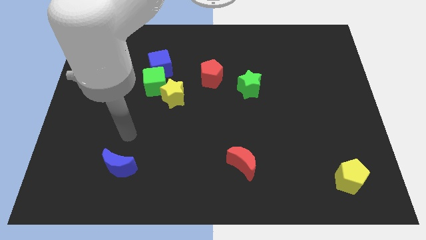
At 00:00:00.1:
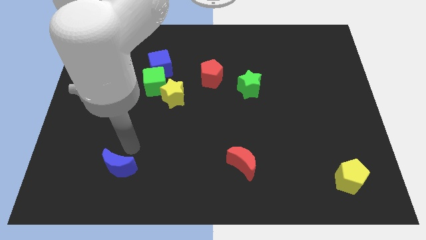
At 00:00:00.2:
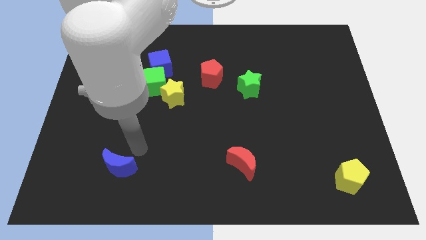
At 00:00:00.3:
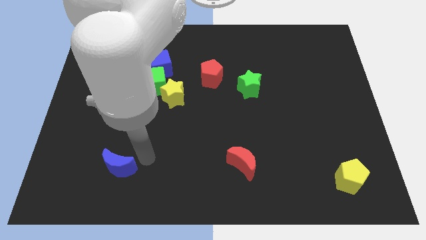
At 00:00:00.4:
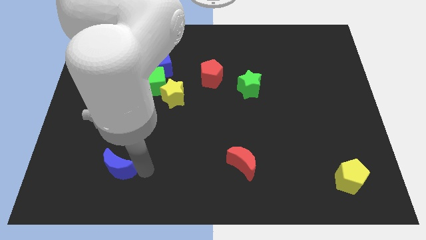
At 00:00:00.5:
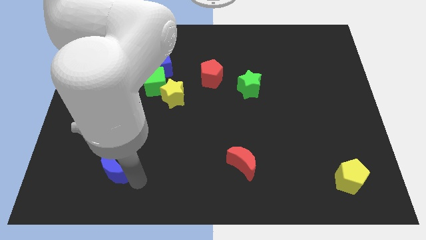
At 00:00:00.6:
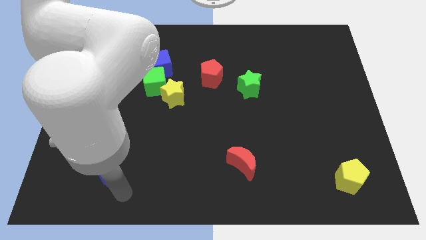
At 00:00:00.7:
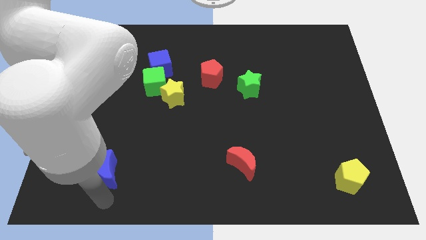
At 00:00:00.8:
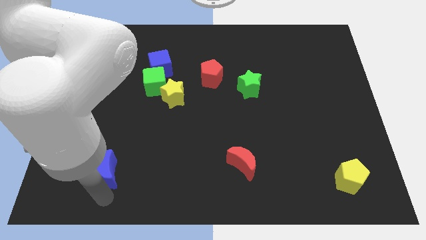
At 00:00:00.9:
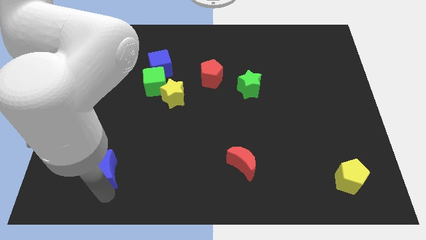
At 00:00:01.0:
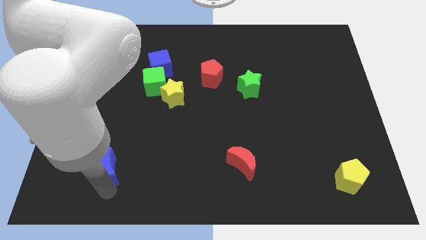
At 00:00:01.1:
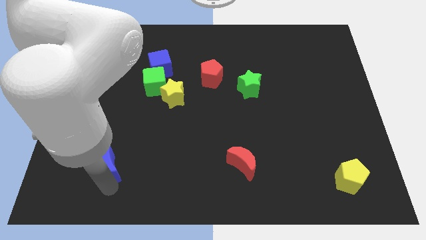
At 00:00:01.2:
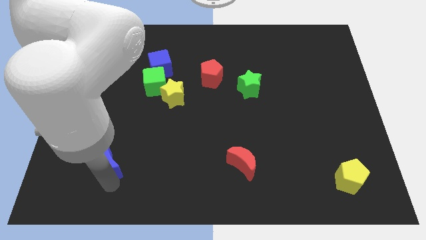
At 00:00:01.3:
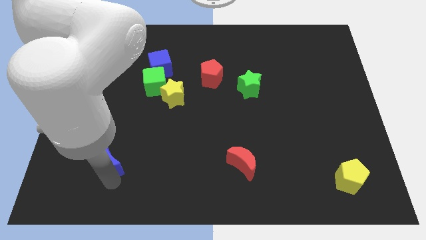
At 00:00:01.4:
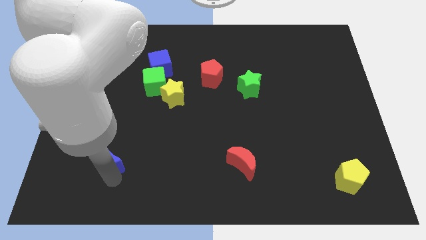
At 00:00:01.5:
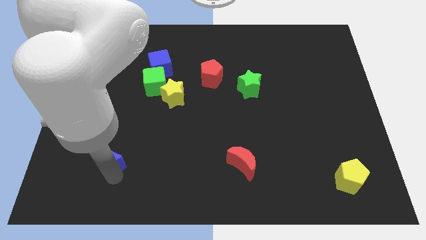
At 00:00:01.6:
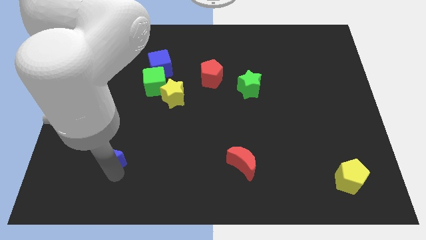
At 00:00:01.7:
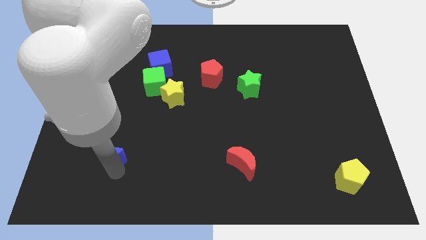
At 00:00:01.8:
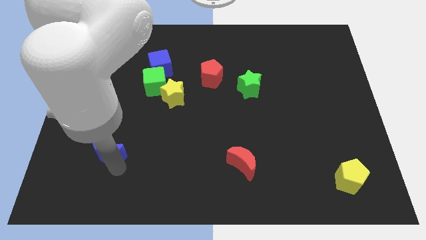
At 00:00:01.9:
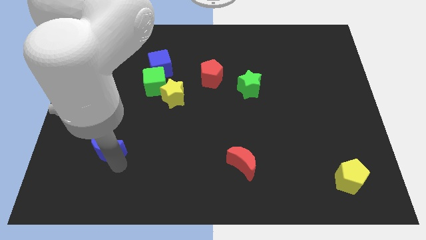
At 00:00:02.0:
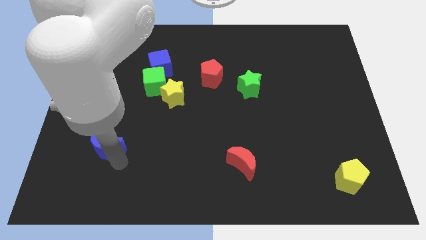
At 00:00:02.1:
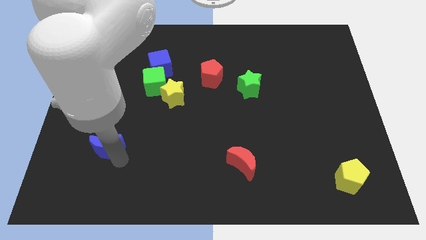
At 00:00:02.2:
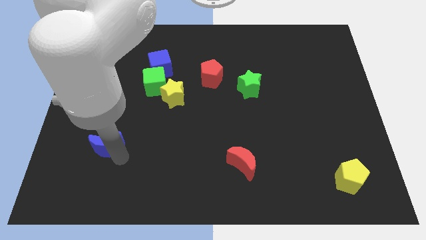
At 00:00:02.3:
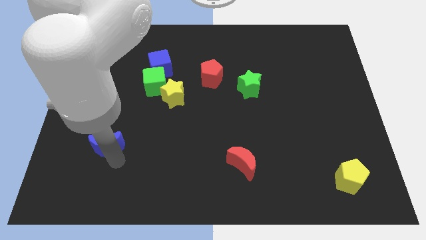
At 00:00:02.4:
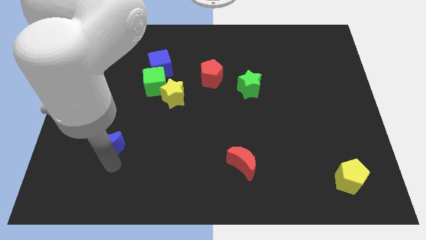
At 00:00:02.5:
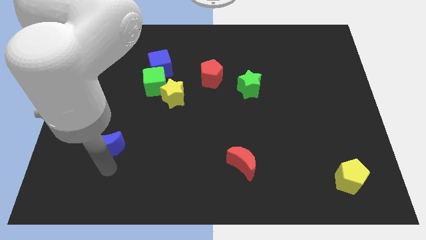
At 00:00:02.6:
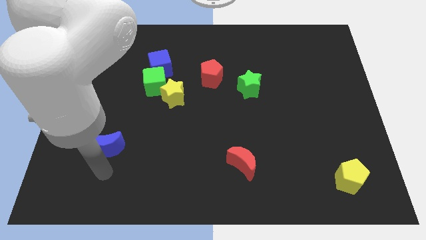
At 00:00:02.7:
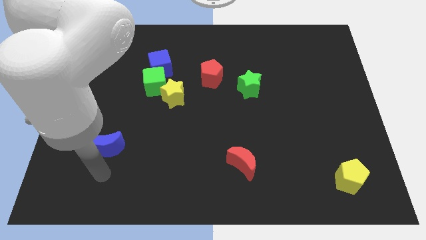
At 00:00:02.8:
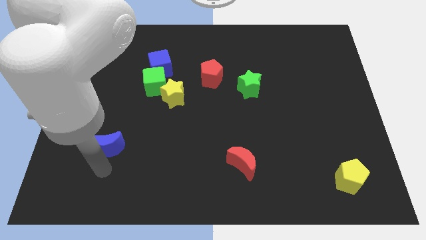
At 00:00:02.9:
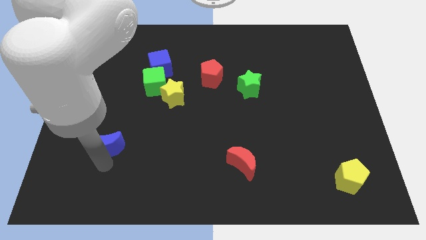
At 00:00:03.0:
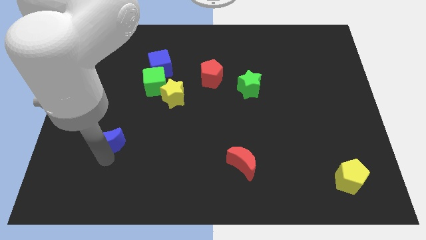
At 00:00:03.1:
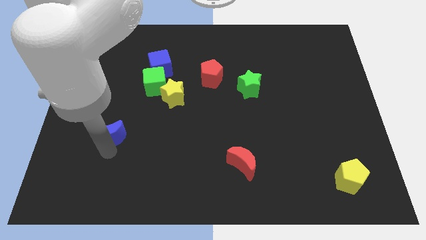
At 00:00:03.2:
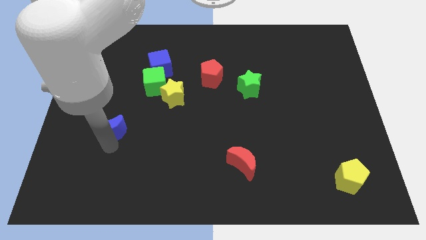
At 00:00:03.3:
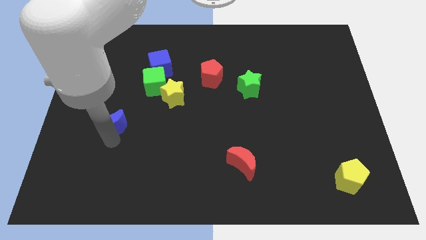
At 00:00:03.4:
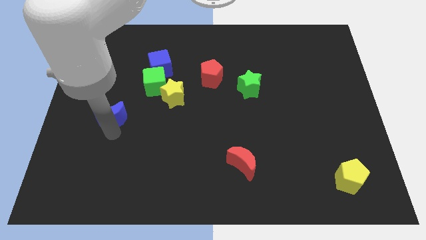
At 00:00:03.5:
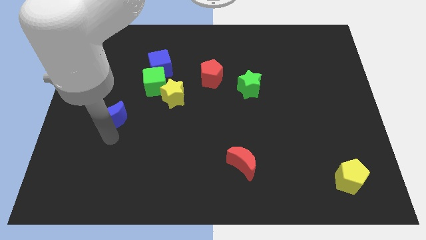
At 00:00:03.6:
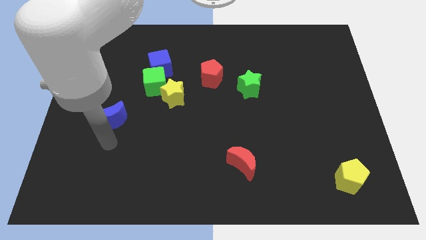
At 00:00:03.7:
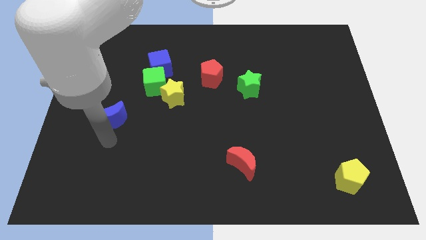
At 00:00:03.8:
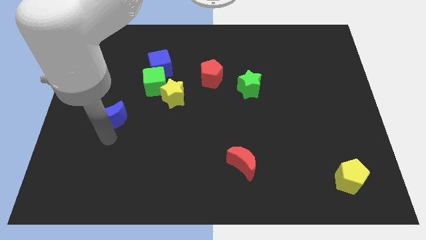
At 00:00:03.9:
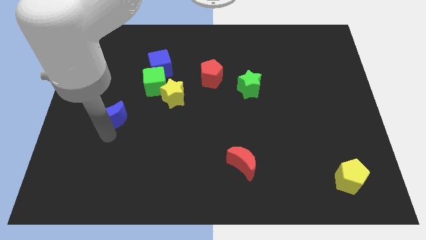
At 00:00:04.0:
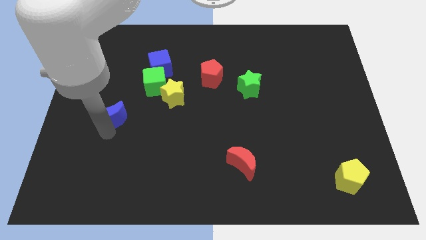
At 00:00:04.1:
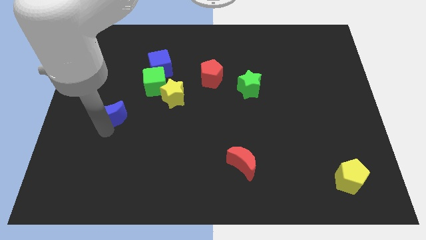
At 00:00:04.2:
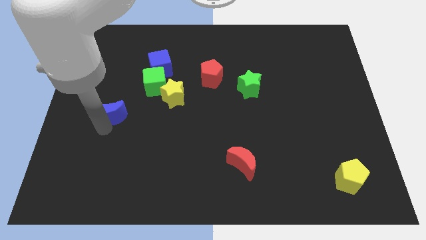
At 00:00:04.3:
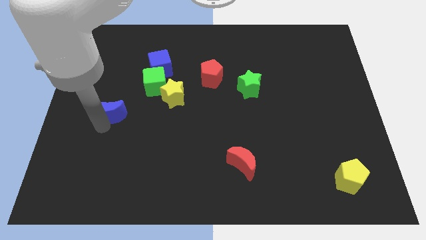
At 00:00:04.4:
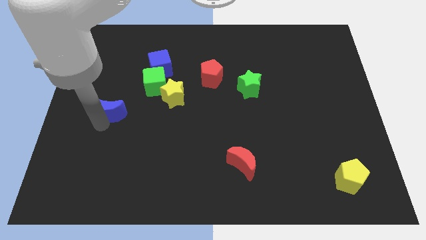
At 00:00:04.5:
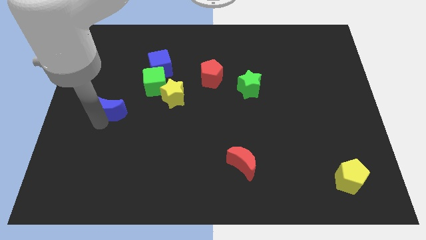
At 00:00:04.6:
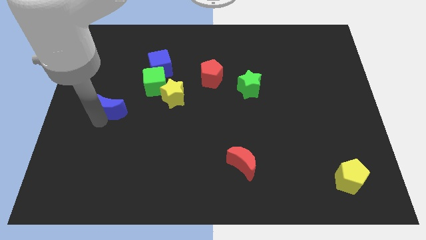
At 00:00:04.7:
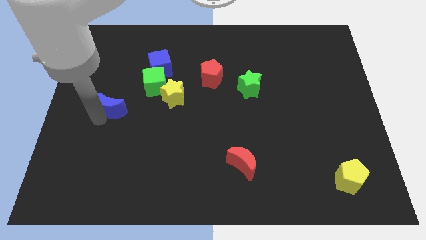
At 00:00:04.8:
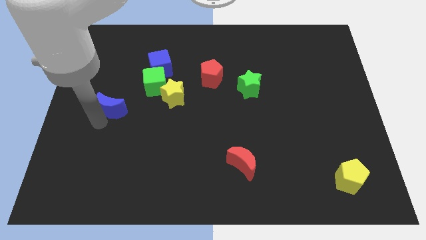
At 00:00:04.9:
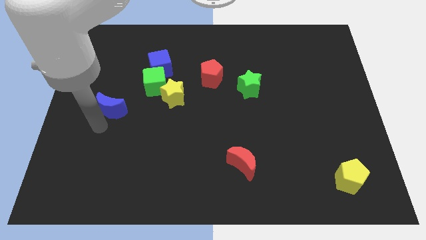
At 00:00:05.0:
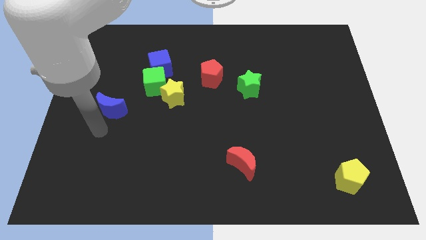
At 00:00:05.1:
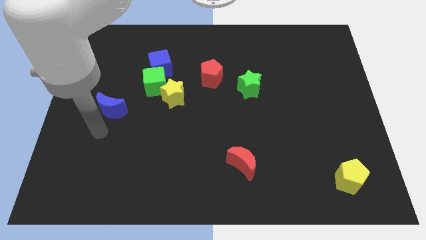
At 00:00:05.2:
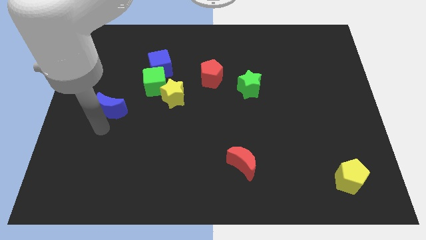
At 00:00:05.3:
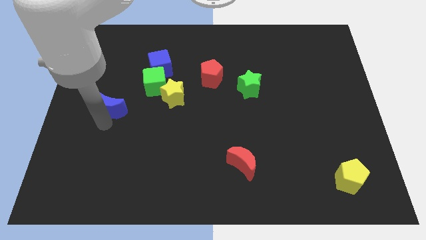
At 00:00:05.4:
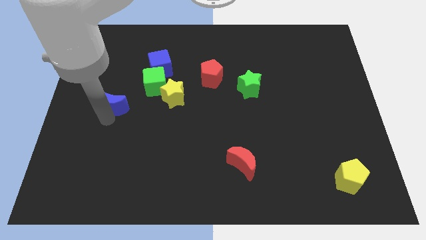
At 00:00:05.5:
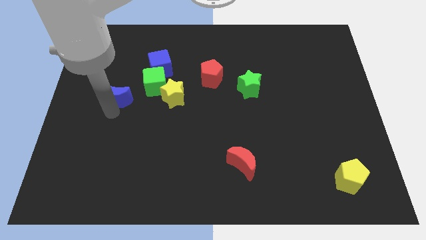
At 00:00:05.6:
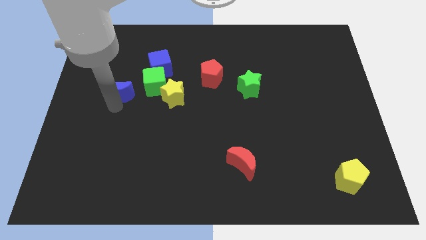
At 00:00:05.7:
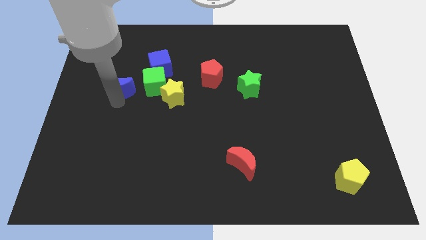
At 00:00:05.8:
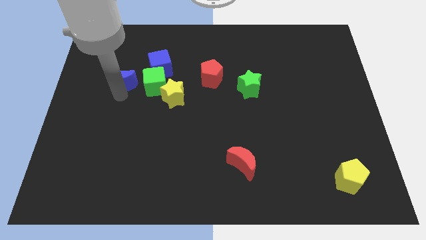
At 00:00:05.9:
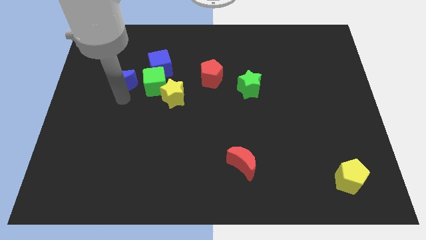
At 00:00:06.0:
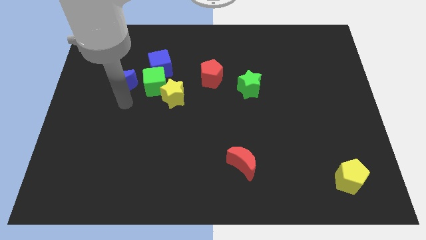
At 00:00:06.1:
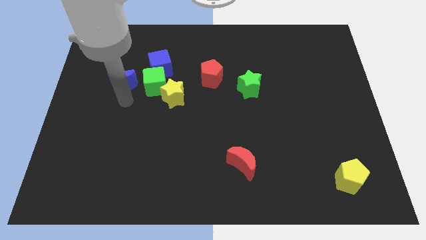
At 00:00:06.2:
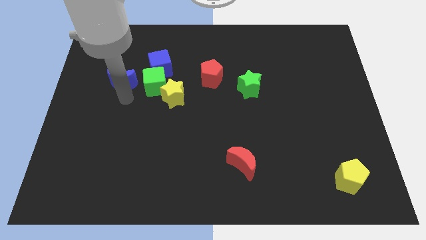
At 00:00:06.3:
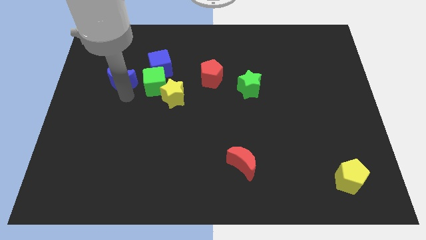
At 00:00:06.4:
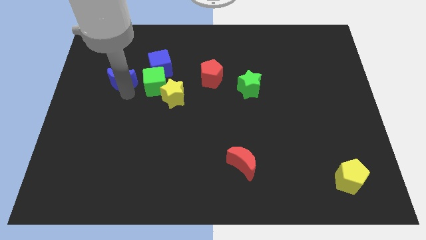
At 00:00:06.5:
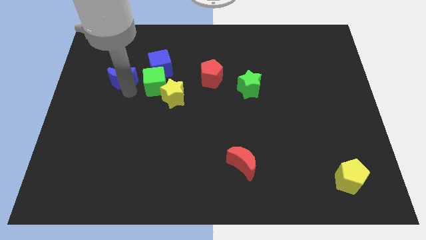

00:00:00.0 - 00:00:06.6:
put the blue moon to the left of the blue cube
